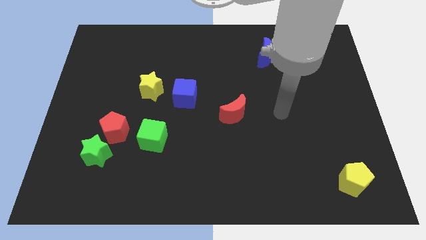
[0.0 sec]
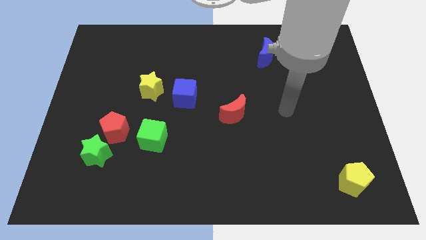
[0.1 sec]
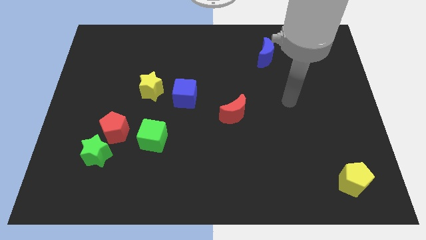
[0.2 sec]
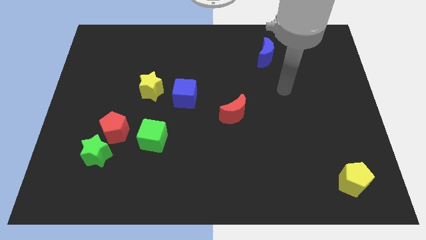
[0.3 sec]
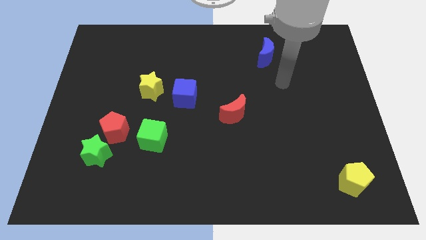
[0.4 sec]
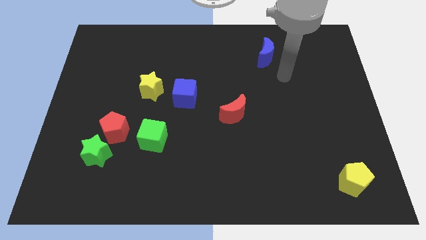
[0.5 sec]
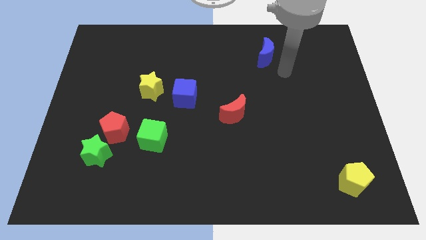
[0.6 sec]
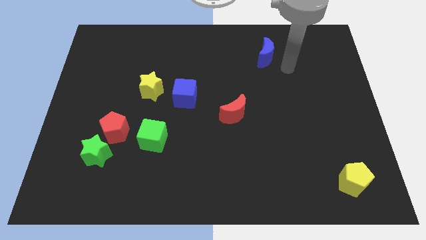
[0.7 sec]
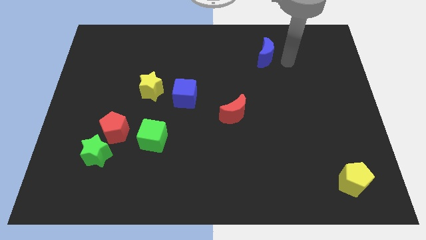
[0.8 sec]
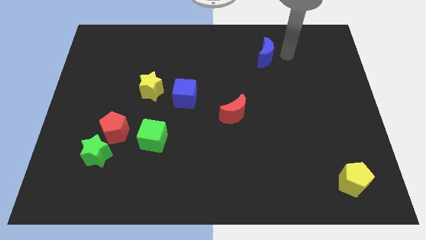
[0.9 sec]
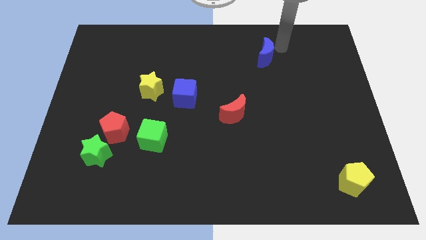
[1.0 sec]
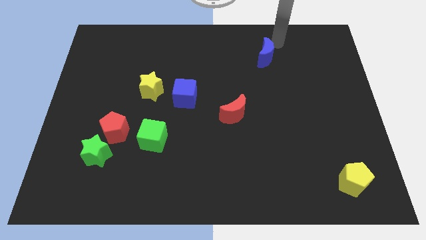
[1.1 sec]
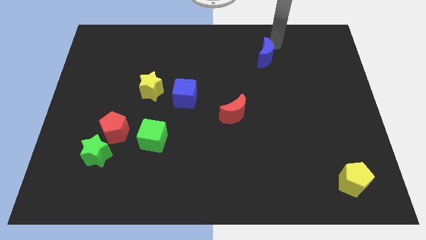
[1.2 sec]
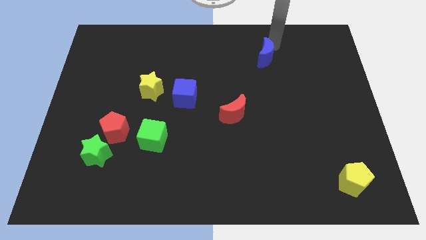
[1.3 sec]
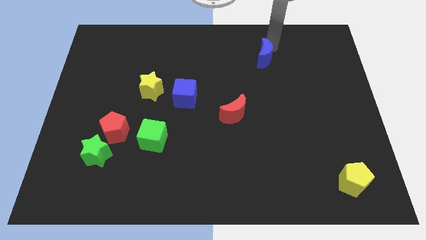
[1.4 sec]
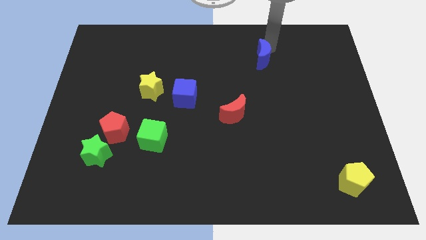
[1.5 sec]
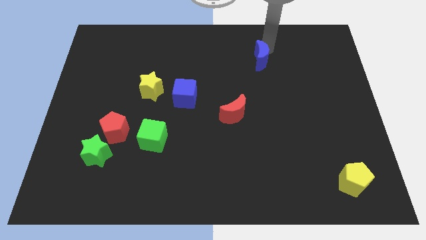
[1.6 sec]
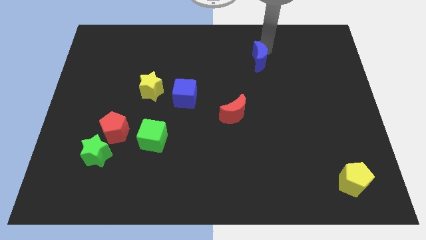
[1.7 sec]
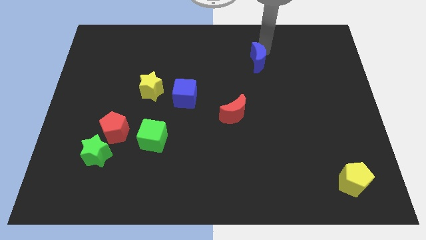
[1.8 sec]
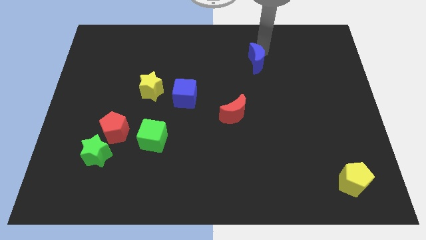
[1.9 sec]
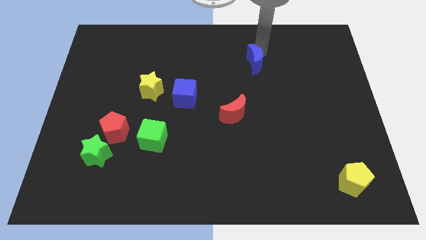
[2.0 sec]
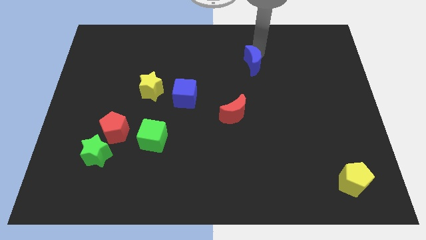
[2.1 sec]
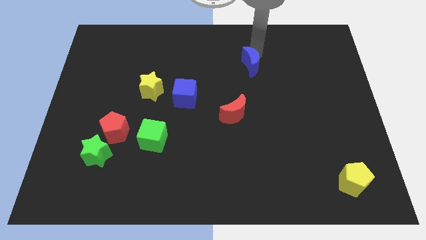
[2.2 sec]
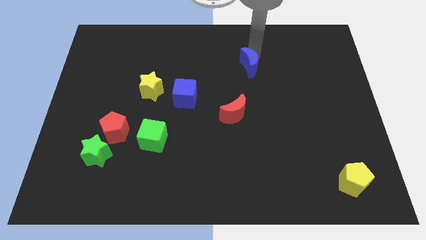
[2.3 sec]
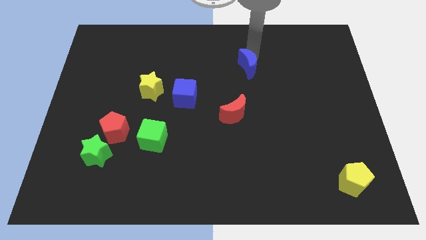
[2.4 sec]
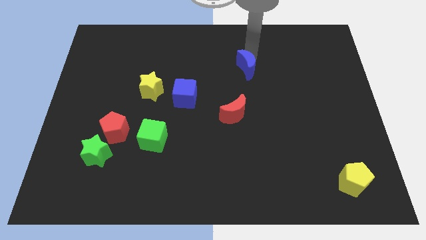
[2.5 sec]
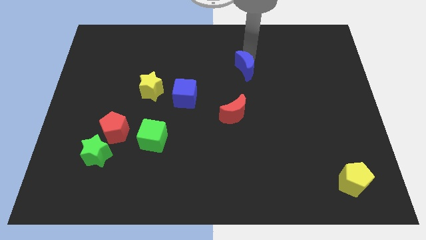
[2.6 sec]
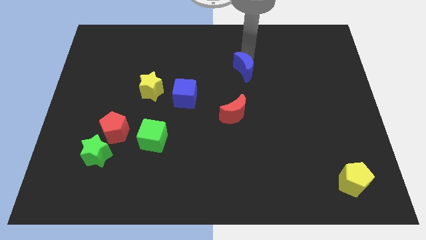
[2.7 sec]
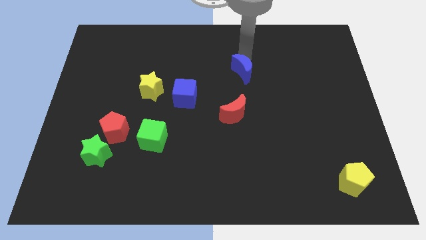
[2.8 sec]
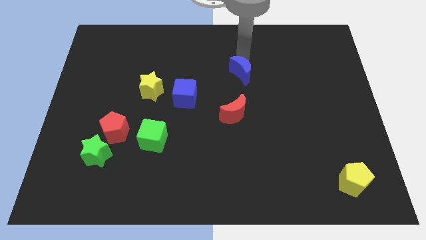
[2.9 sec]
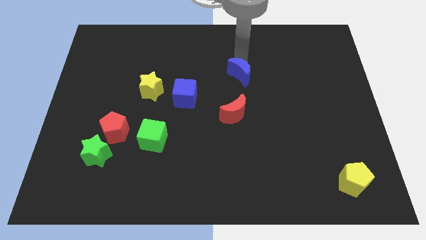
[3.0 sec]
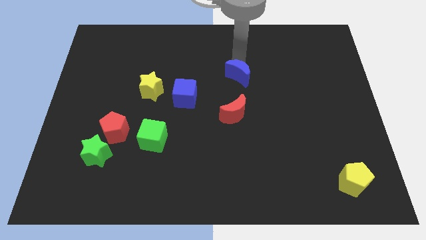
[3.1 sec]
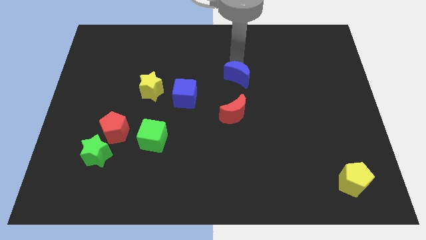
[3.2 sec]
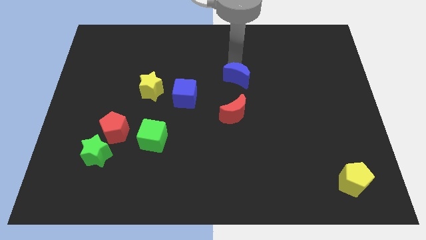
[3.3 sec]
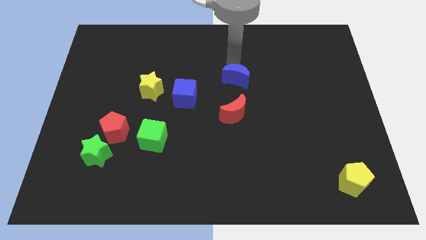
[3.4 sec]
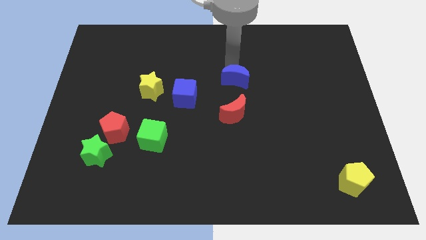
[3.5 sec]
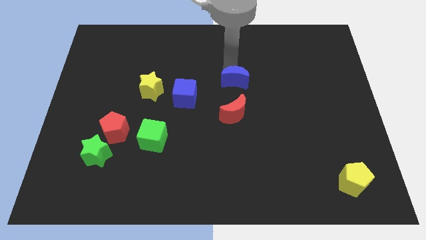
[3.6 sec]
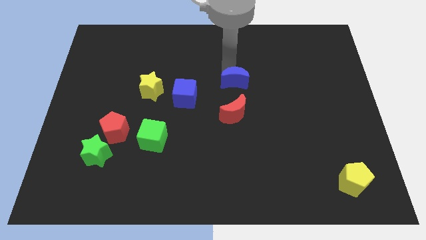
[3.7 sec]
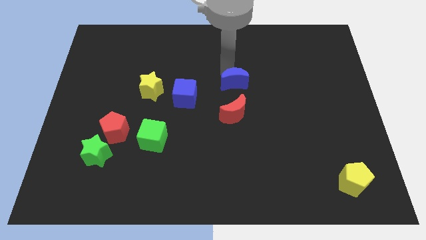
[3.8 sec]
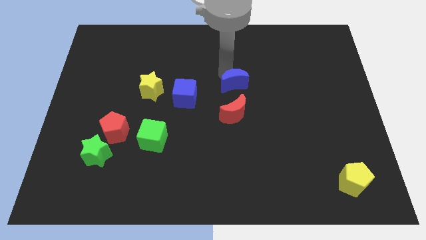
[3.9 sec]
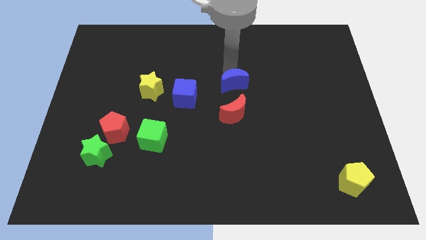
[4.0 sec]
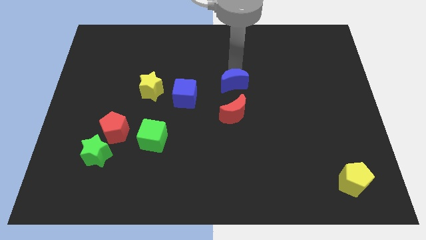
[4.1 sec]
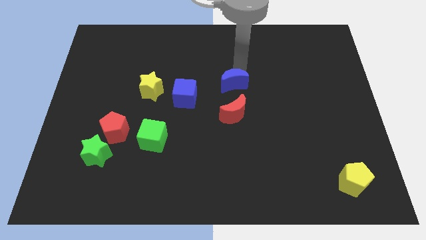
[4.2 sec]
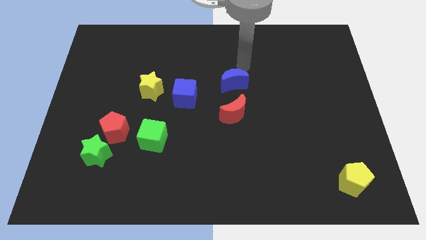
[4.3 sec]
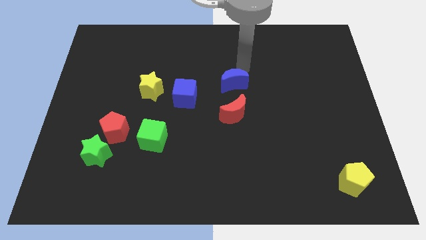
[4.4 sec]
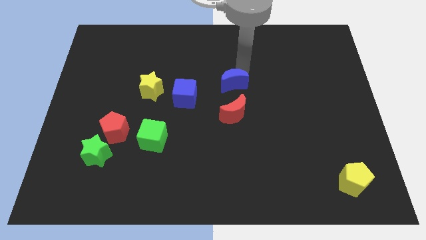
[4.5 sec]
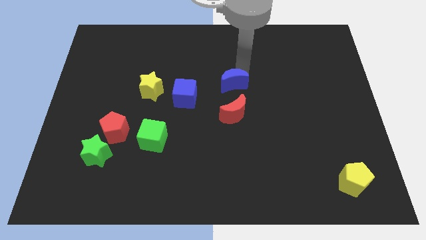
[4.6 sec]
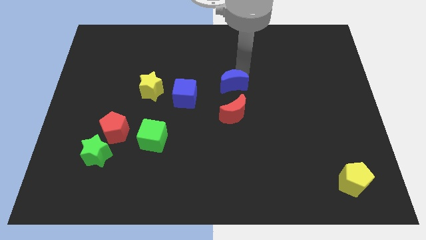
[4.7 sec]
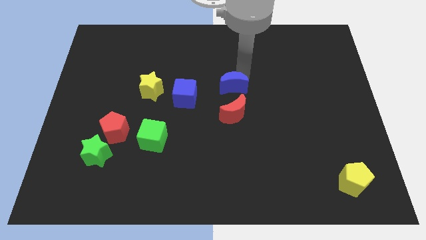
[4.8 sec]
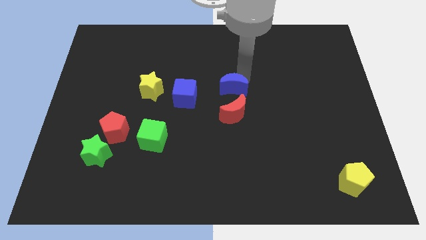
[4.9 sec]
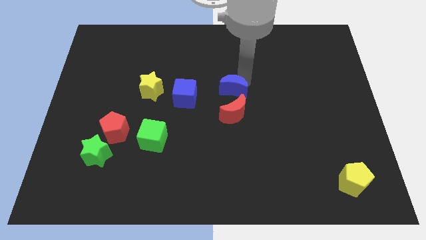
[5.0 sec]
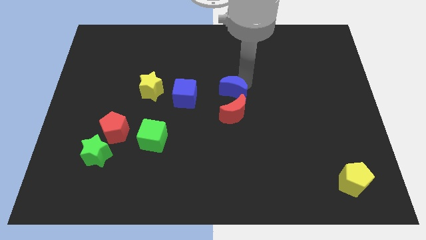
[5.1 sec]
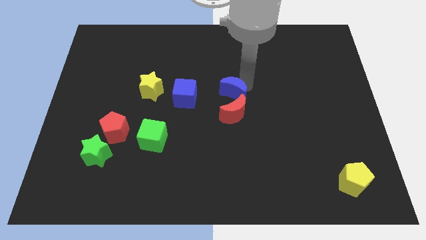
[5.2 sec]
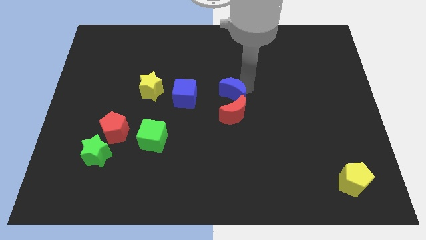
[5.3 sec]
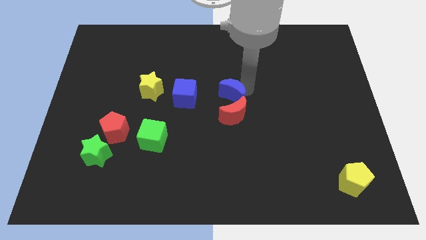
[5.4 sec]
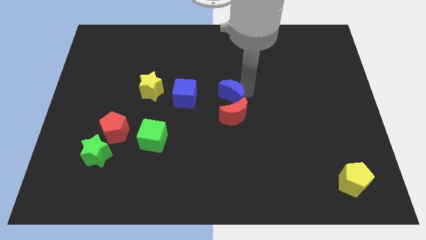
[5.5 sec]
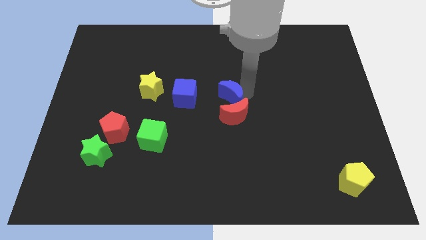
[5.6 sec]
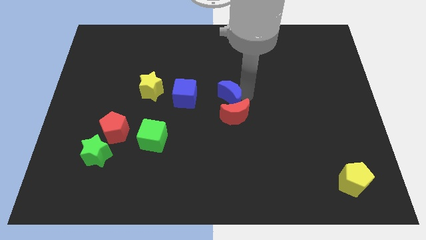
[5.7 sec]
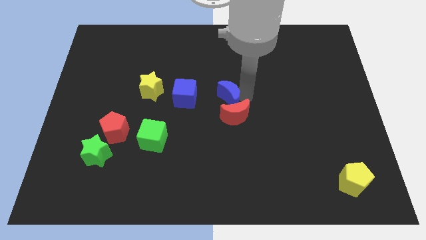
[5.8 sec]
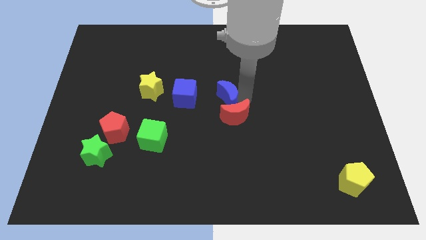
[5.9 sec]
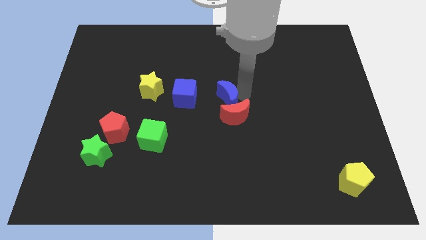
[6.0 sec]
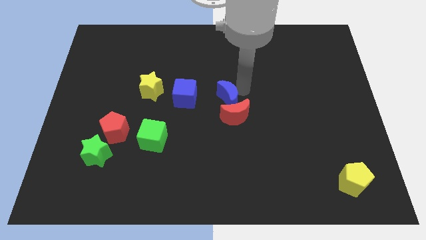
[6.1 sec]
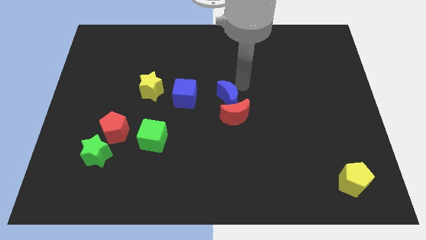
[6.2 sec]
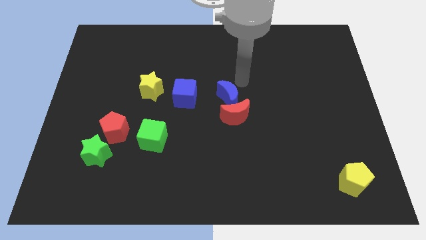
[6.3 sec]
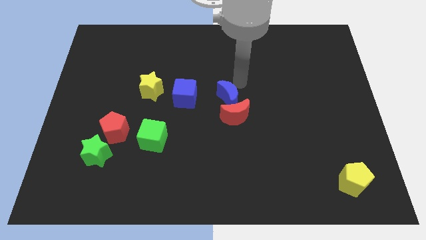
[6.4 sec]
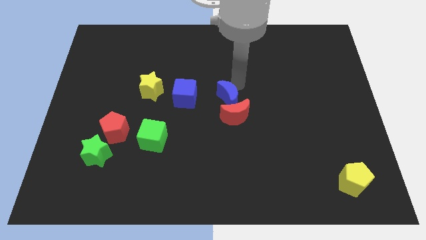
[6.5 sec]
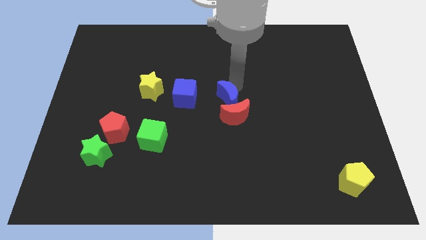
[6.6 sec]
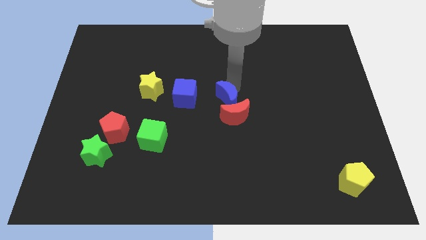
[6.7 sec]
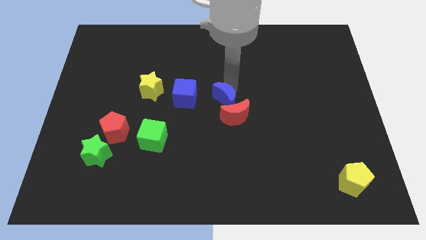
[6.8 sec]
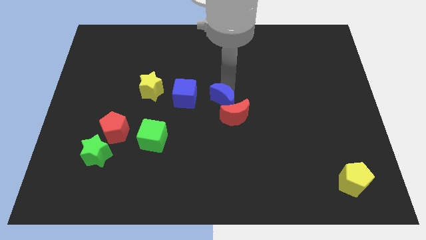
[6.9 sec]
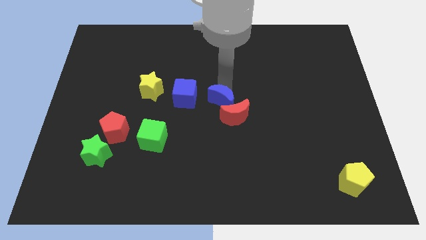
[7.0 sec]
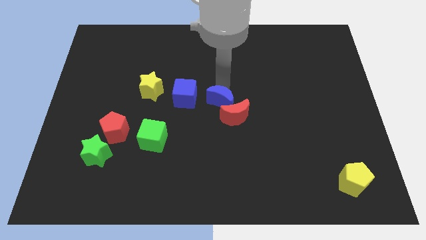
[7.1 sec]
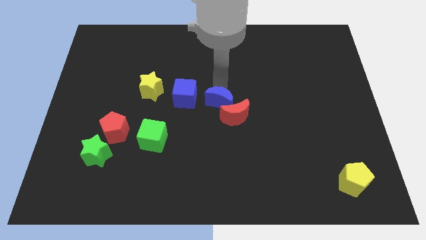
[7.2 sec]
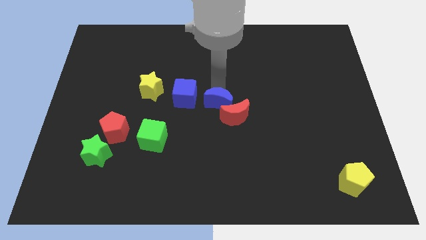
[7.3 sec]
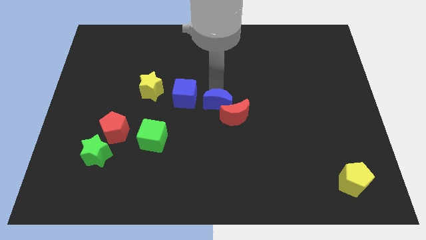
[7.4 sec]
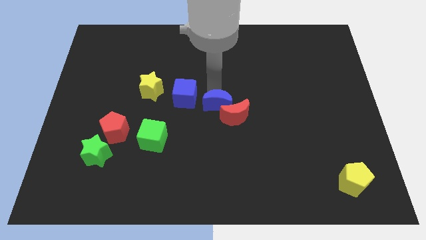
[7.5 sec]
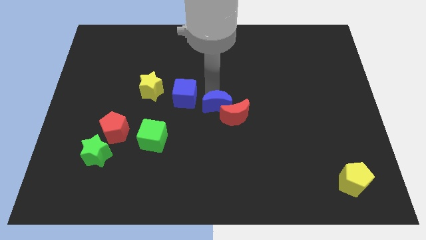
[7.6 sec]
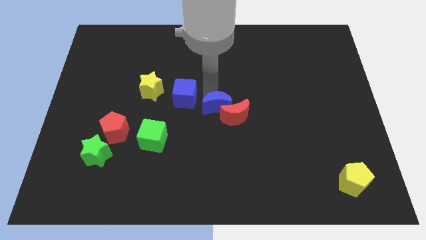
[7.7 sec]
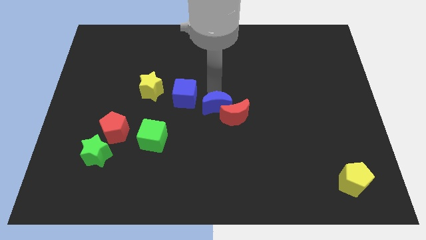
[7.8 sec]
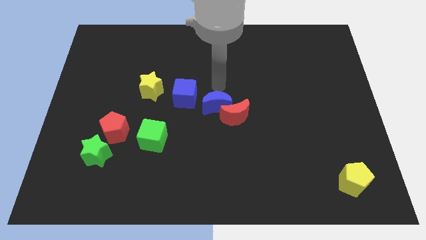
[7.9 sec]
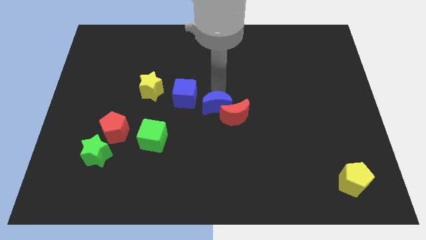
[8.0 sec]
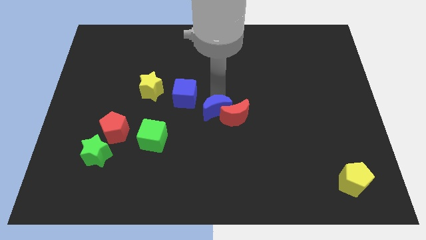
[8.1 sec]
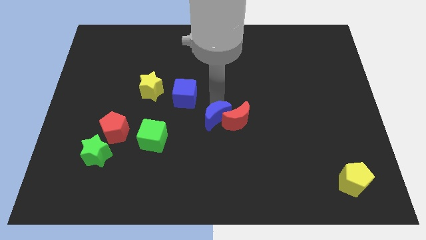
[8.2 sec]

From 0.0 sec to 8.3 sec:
push the blue moon diagonally down and to the left of the red moon
